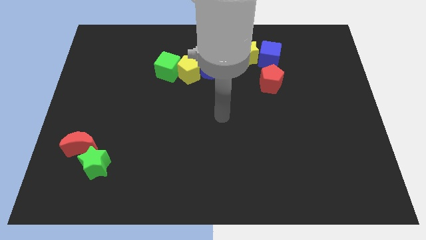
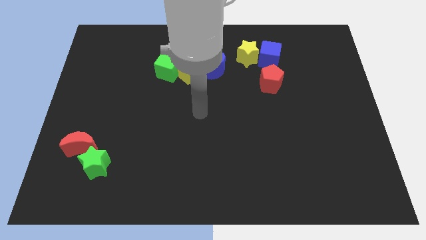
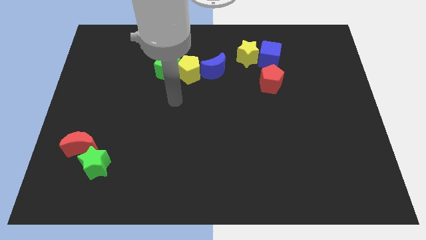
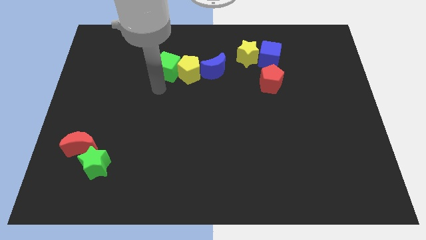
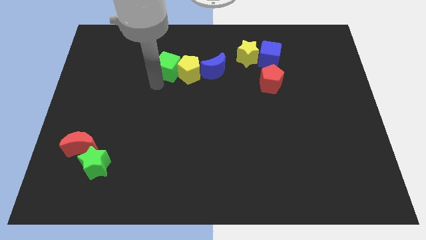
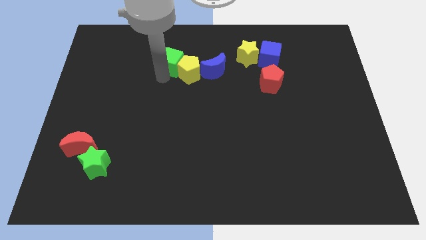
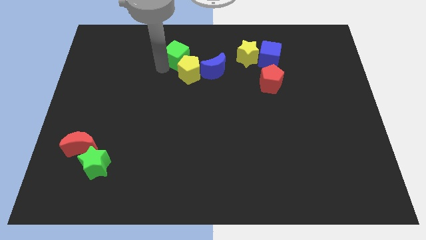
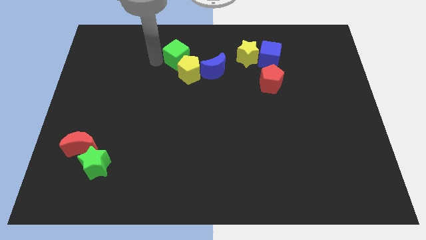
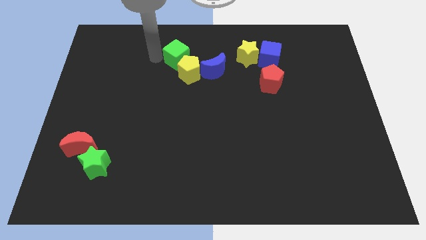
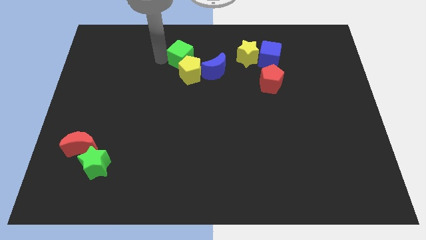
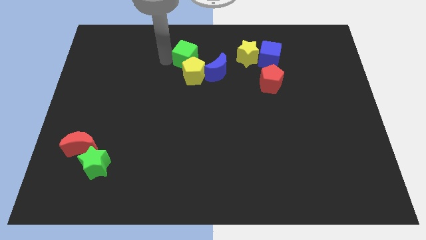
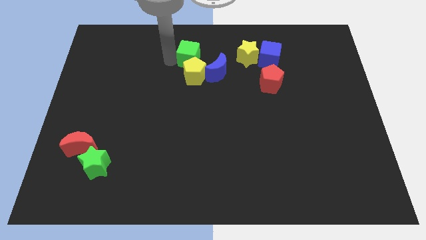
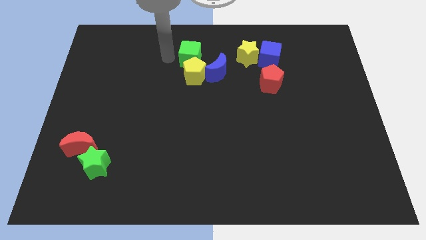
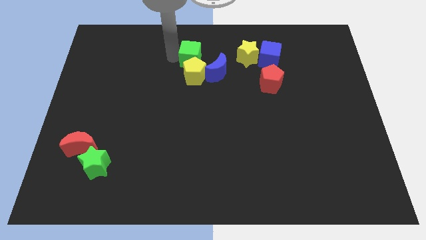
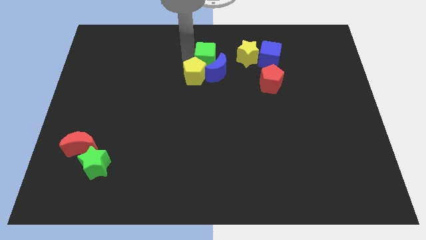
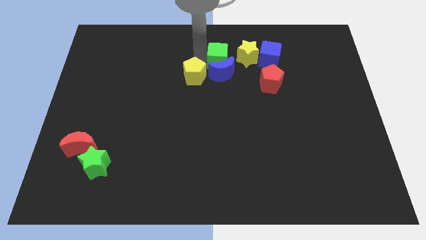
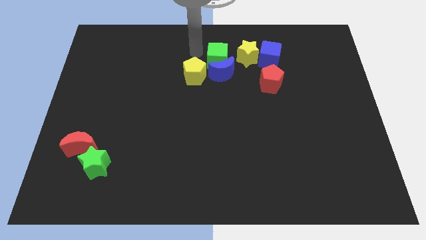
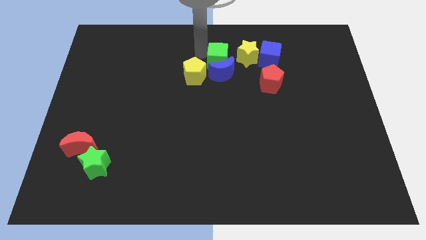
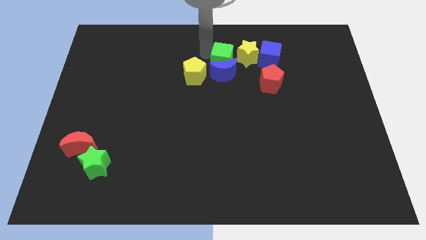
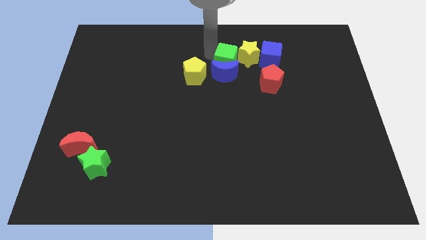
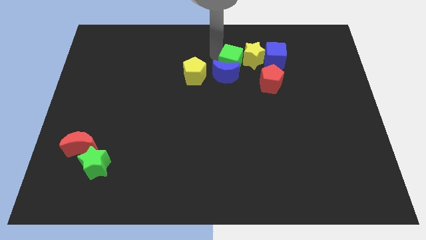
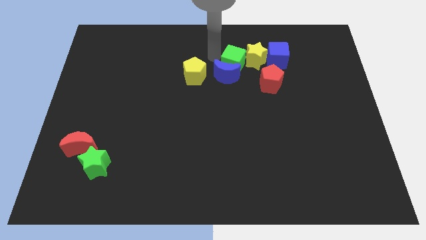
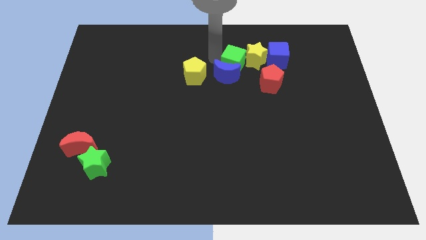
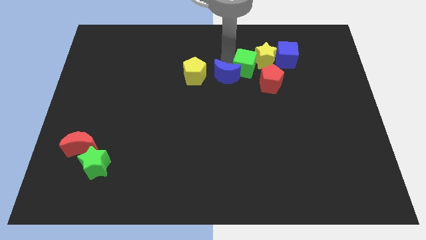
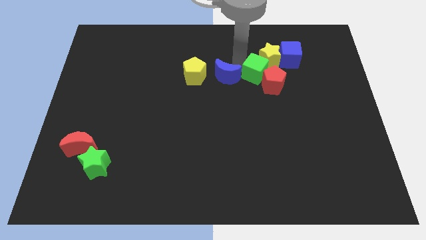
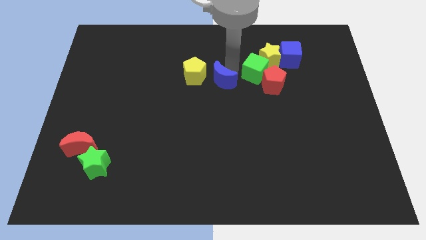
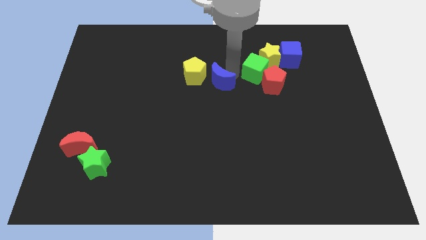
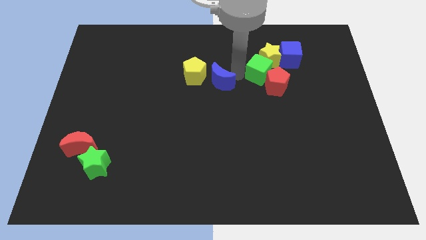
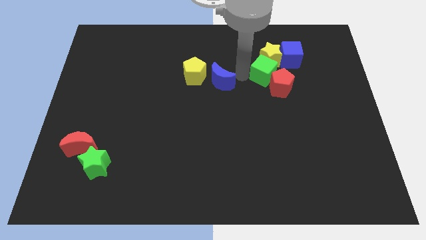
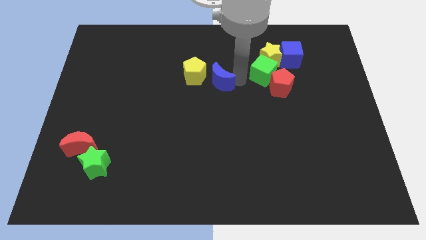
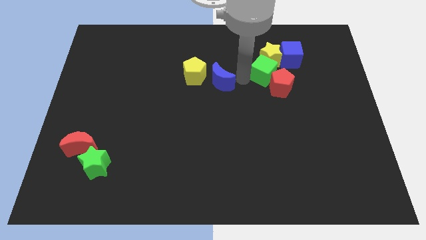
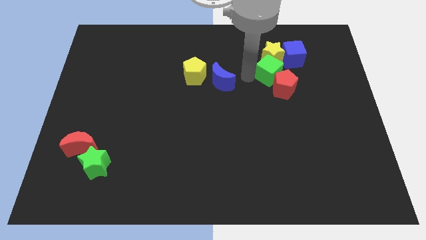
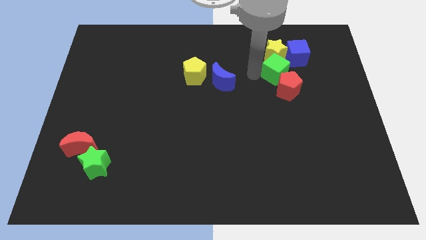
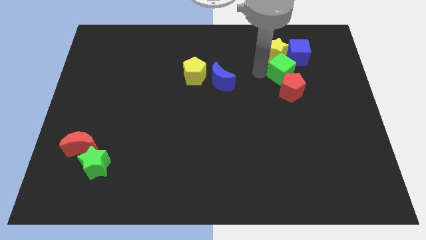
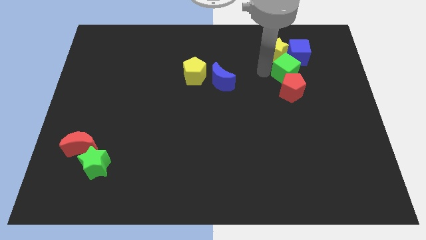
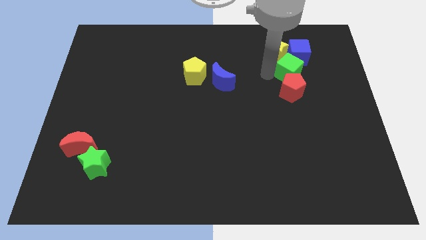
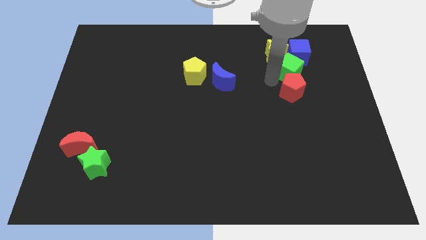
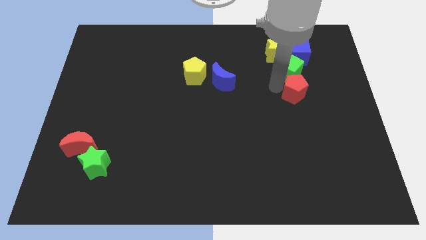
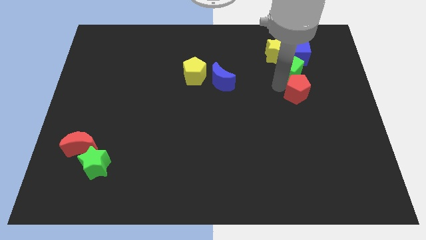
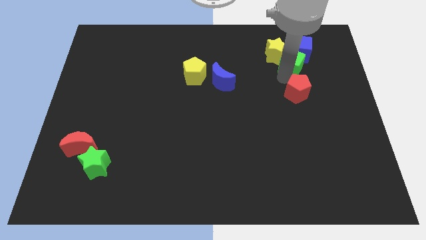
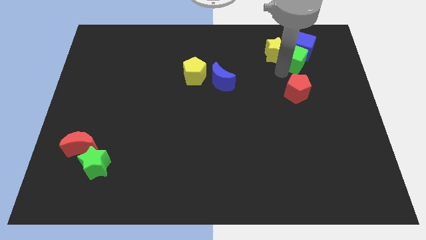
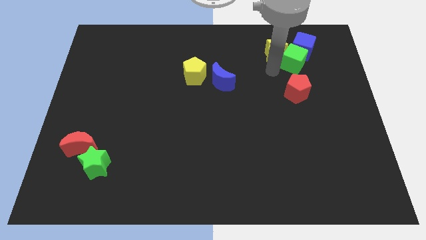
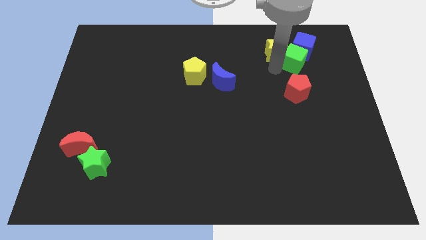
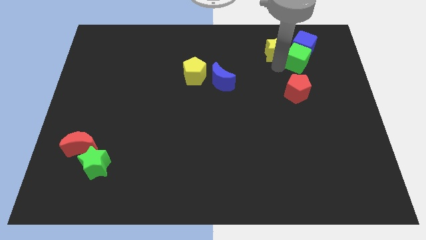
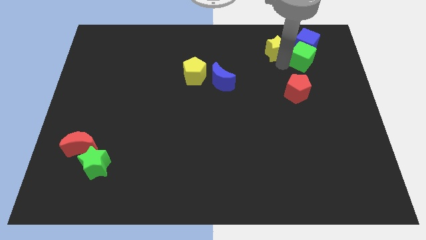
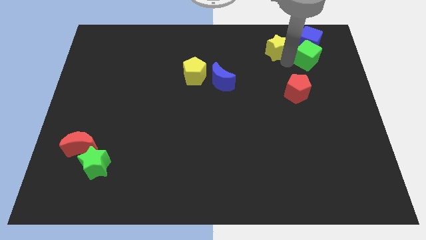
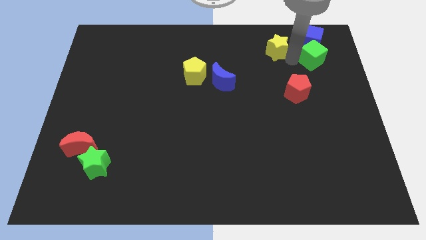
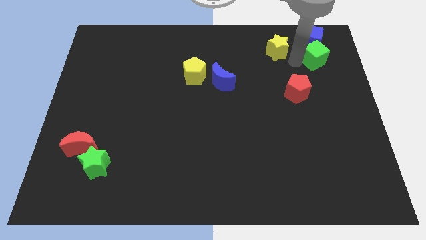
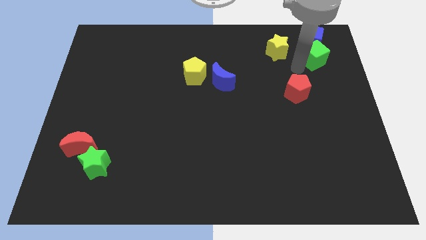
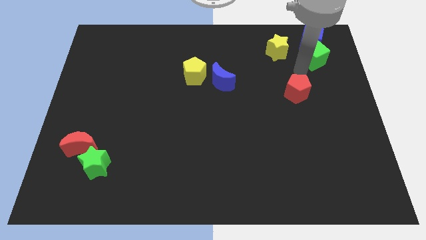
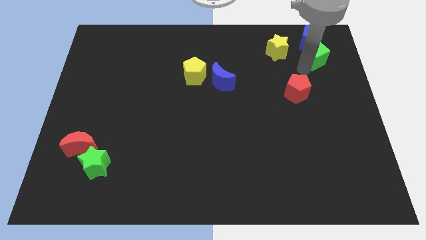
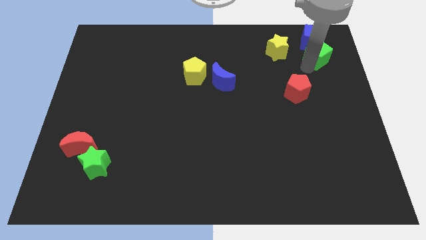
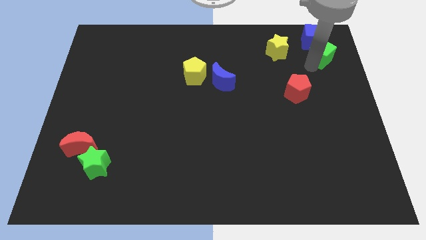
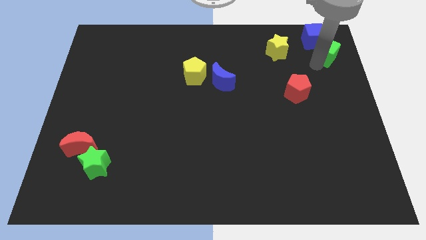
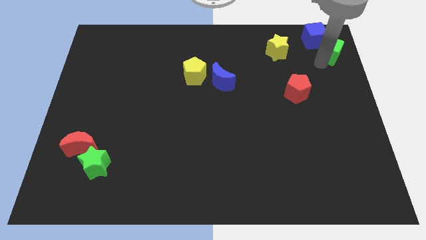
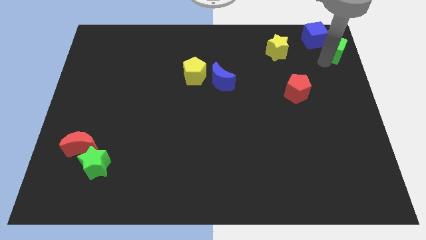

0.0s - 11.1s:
slide the green cube to the top right of the board
